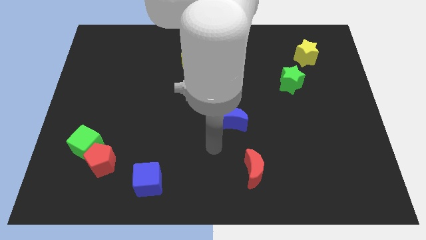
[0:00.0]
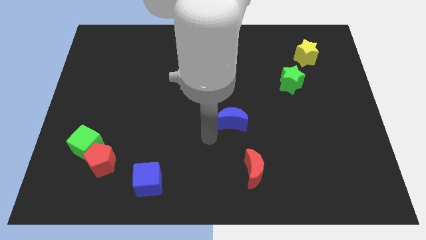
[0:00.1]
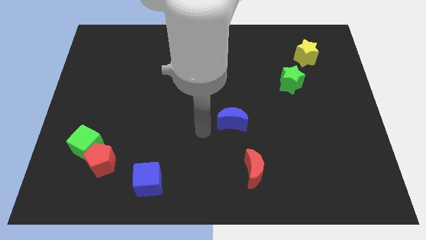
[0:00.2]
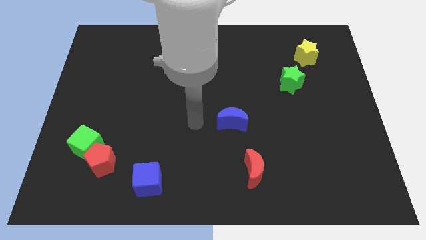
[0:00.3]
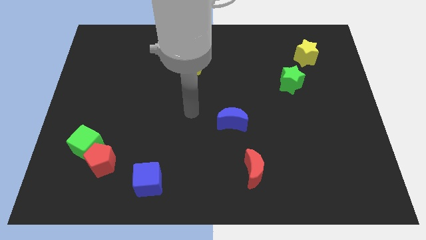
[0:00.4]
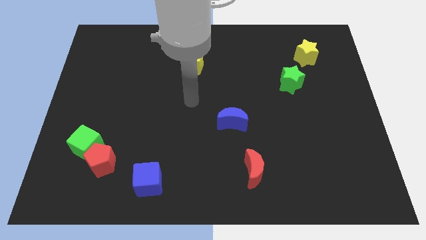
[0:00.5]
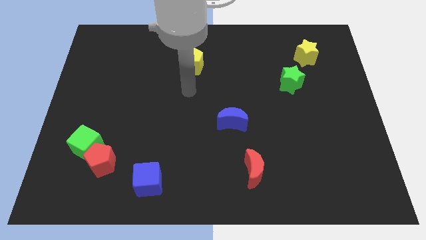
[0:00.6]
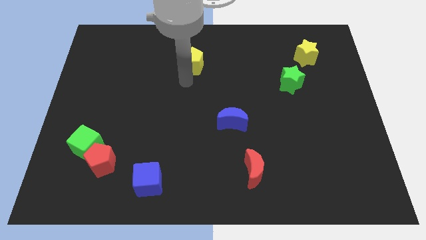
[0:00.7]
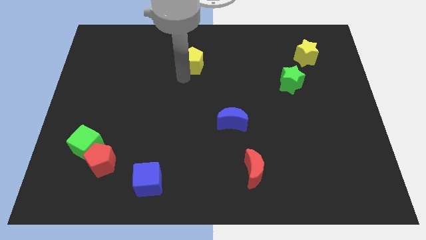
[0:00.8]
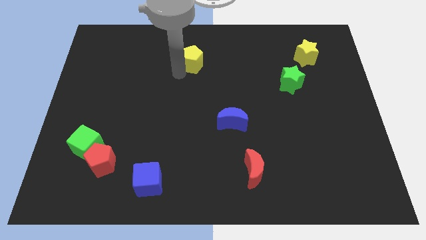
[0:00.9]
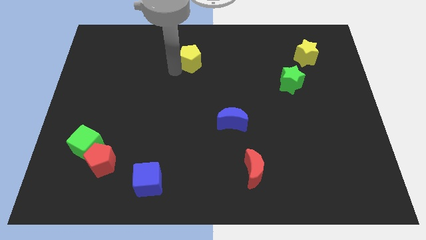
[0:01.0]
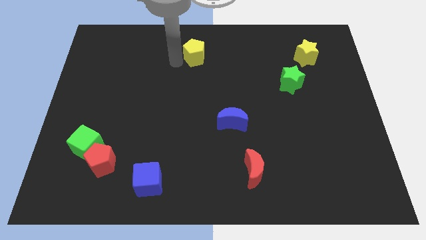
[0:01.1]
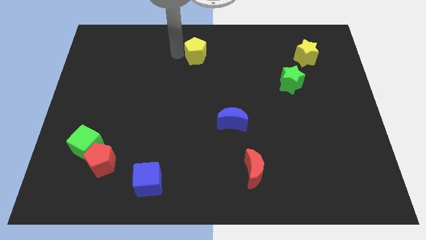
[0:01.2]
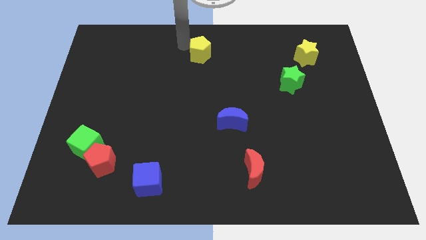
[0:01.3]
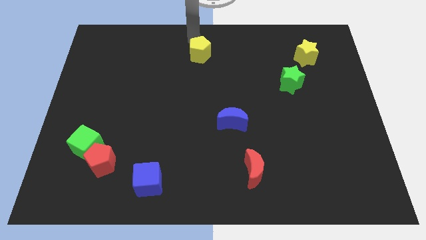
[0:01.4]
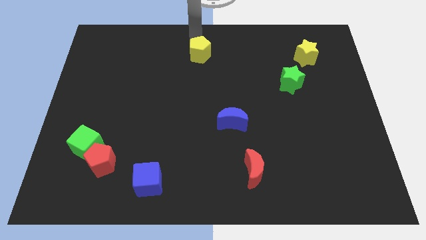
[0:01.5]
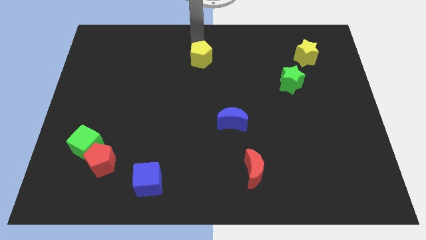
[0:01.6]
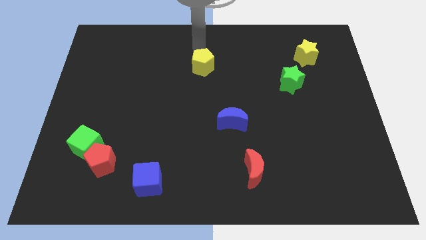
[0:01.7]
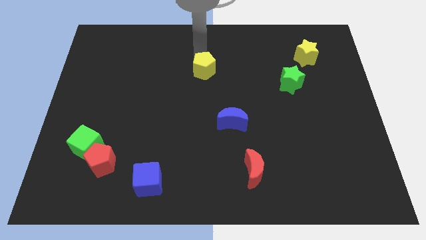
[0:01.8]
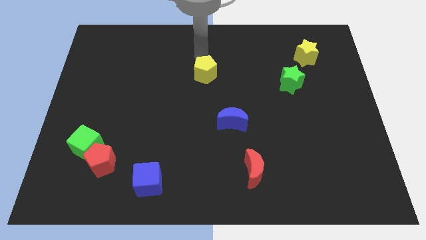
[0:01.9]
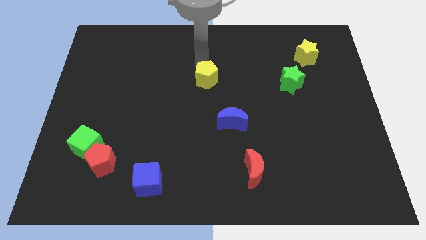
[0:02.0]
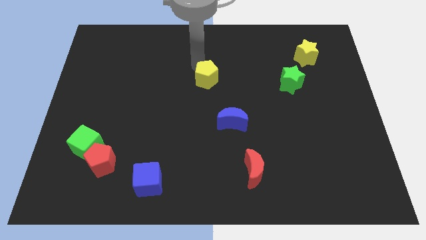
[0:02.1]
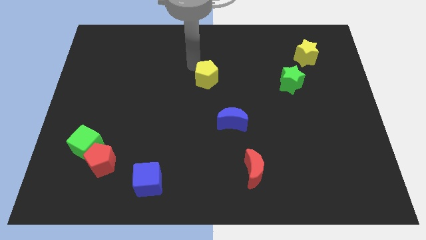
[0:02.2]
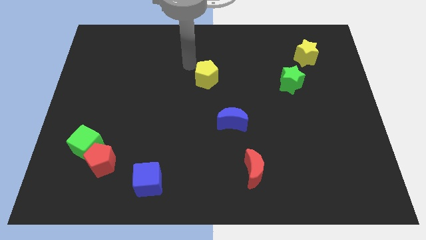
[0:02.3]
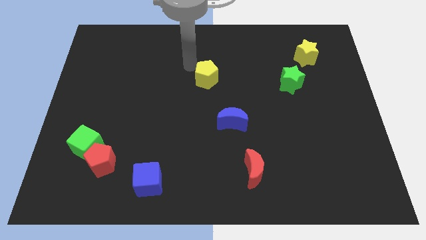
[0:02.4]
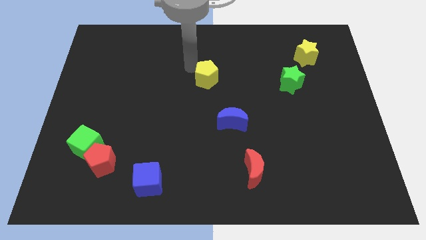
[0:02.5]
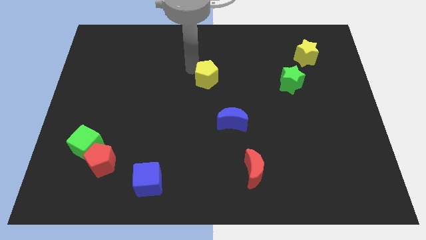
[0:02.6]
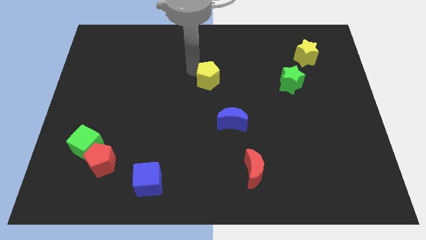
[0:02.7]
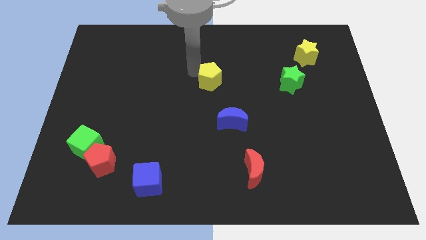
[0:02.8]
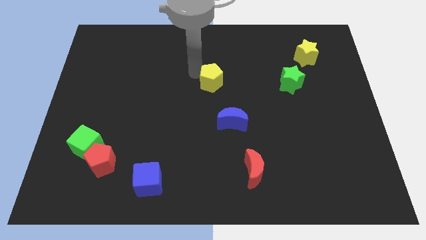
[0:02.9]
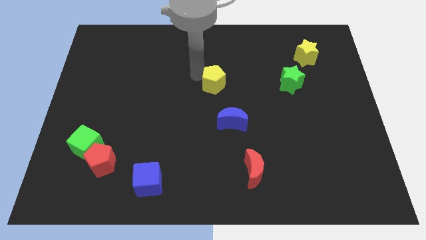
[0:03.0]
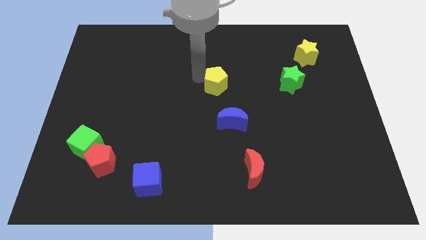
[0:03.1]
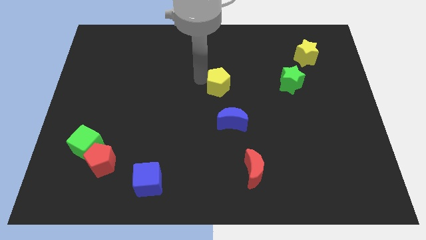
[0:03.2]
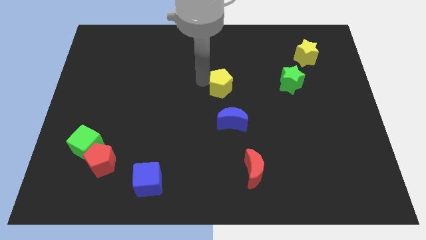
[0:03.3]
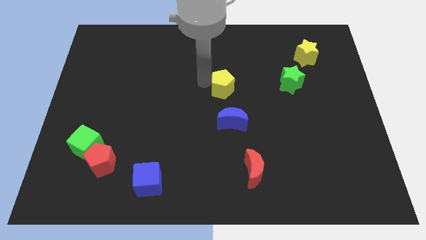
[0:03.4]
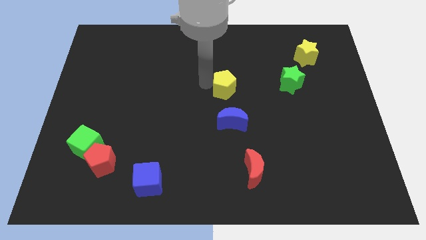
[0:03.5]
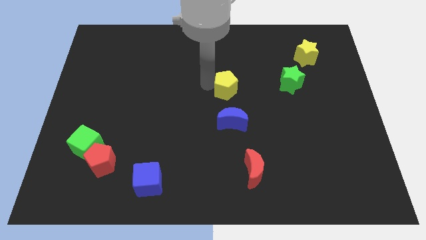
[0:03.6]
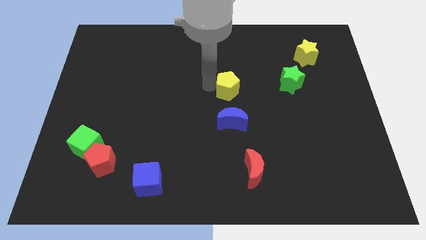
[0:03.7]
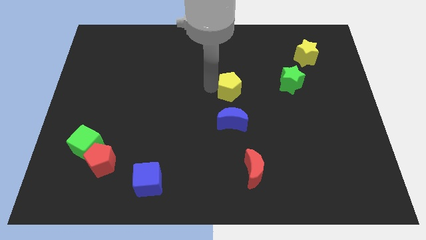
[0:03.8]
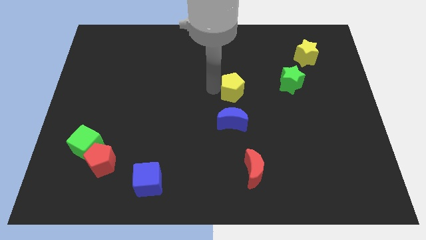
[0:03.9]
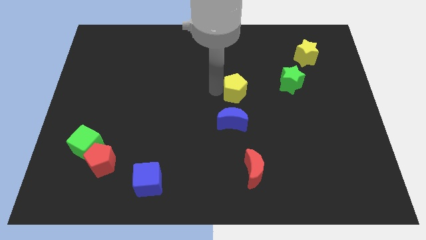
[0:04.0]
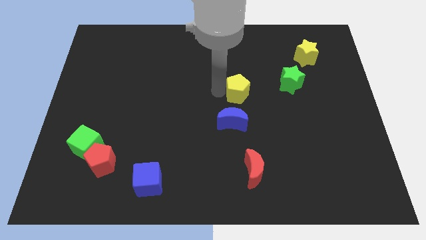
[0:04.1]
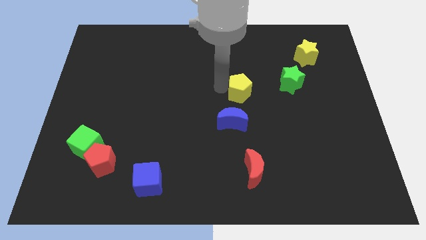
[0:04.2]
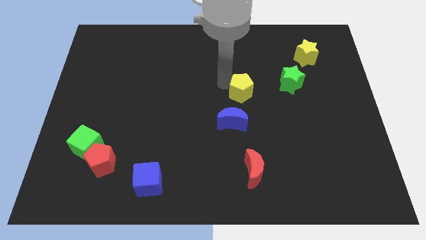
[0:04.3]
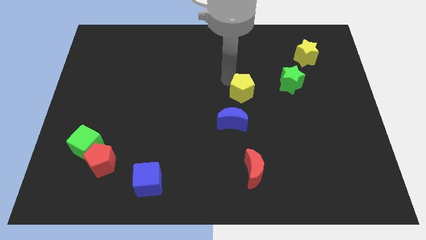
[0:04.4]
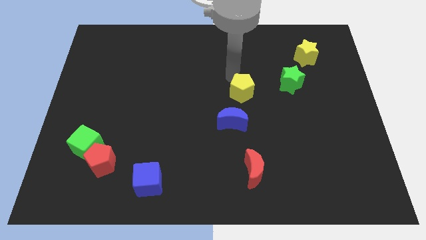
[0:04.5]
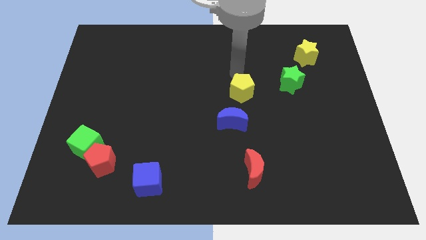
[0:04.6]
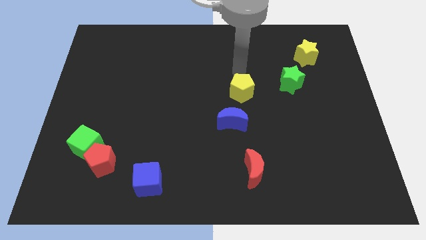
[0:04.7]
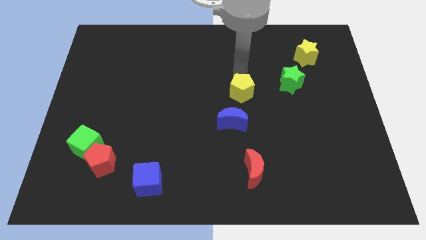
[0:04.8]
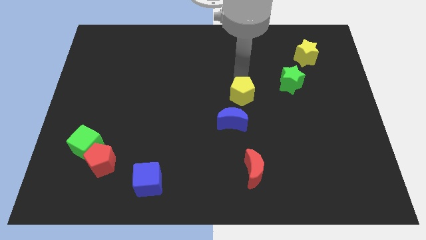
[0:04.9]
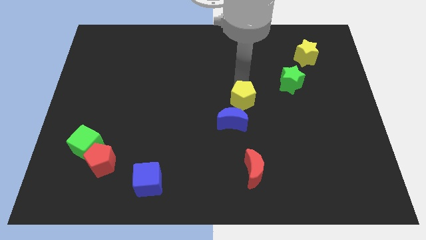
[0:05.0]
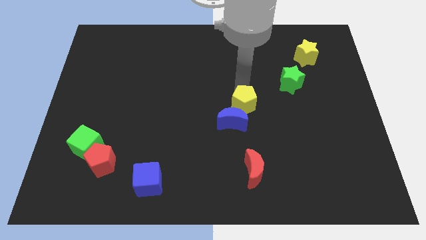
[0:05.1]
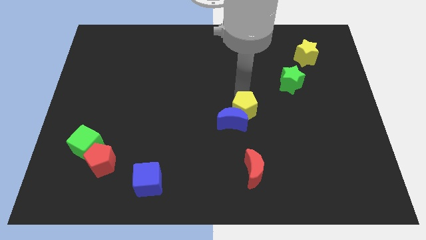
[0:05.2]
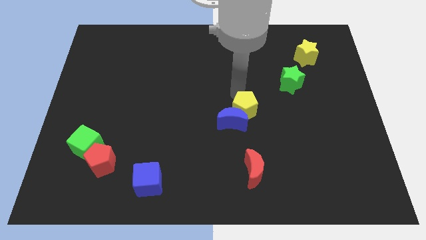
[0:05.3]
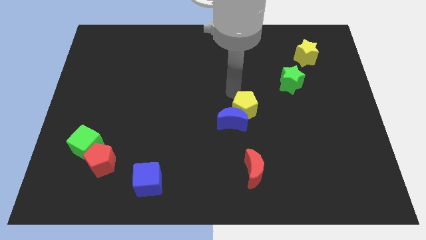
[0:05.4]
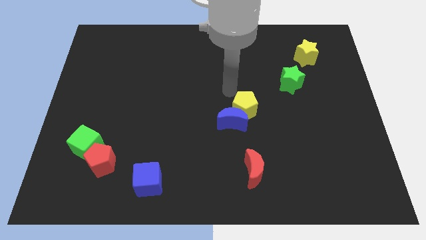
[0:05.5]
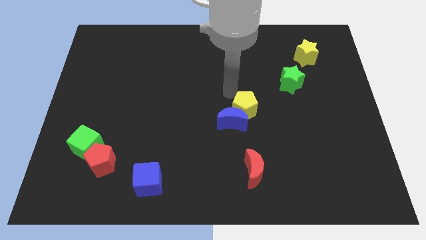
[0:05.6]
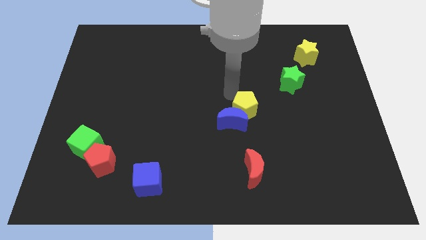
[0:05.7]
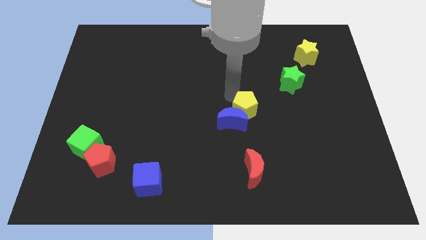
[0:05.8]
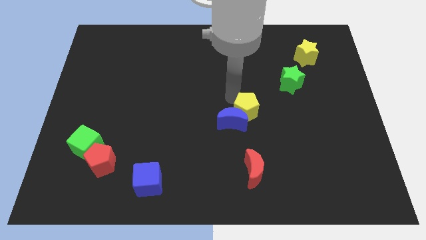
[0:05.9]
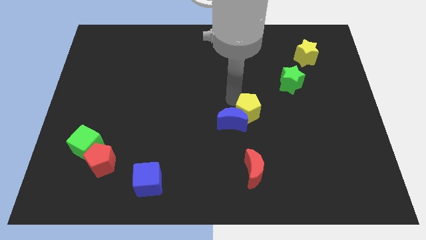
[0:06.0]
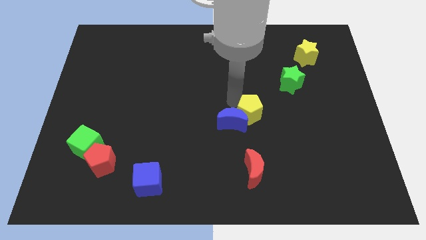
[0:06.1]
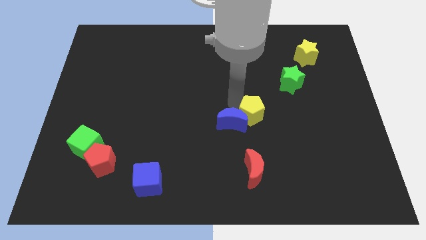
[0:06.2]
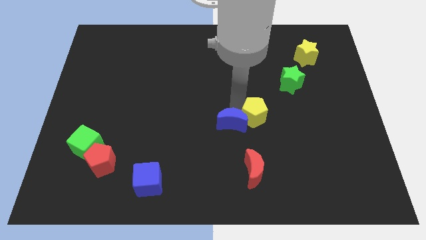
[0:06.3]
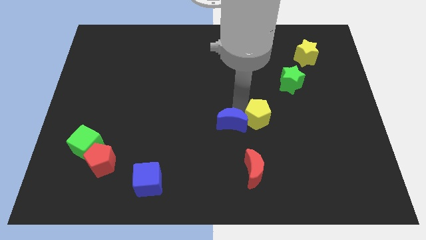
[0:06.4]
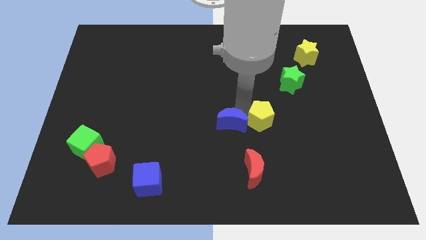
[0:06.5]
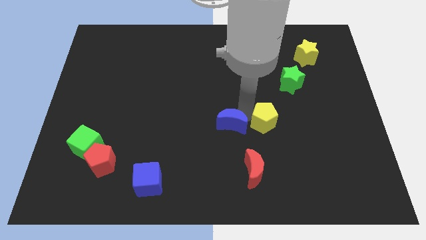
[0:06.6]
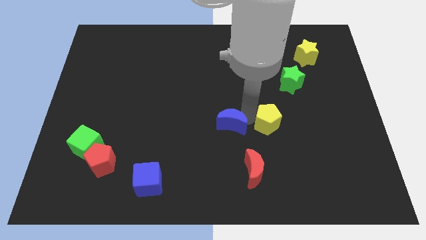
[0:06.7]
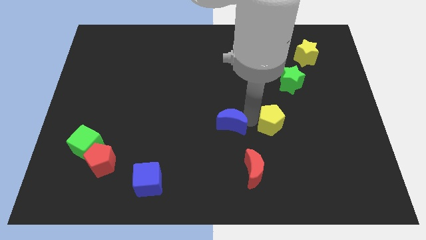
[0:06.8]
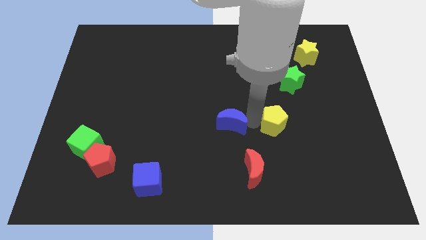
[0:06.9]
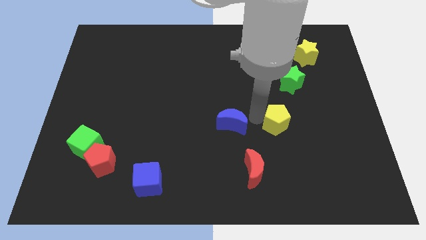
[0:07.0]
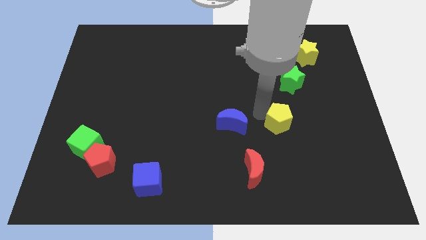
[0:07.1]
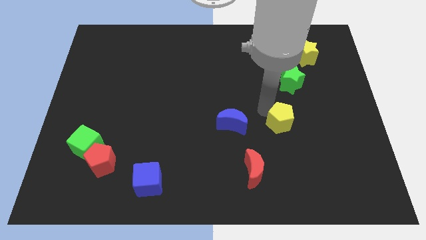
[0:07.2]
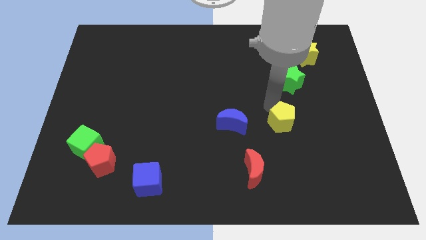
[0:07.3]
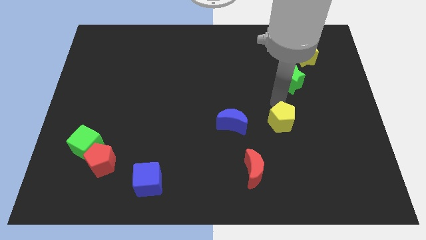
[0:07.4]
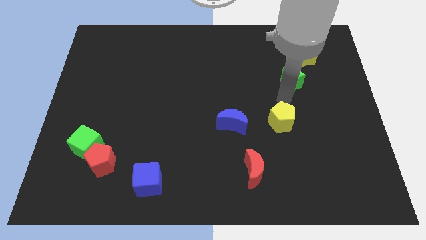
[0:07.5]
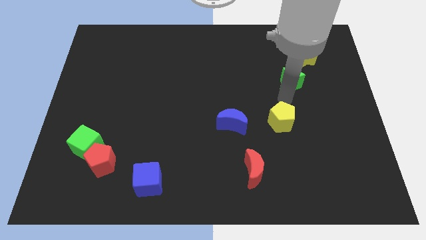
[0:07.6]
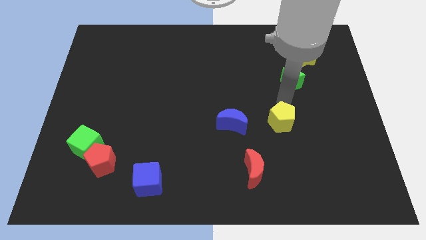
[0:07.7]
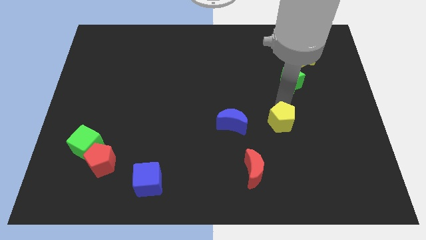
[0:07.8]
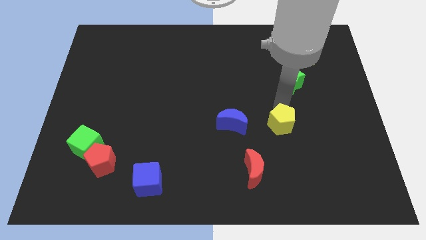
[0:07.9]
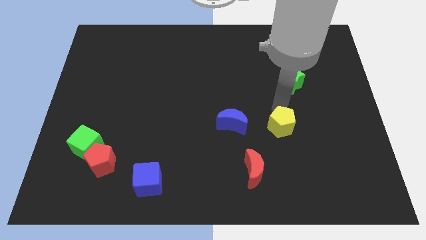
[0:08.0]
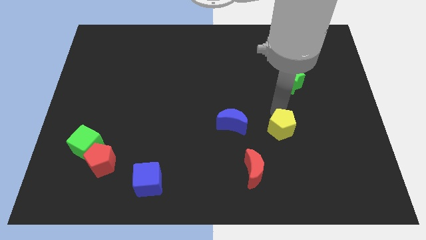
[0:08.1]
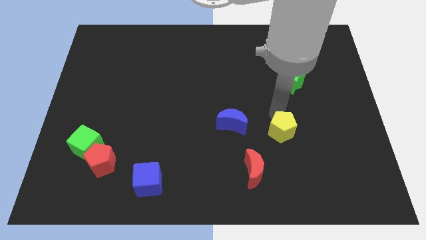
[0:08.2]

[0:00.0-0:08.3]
slide the yellow pentagon diagonally up and to the right of the red moon
